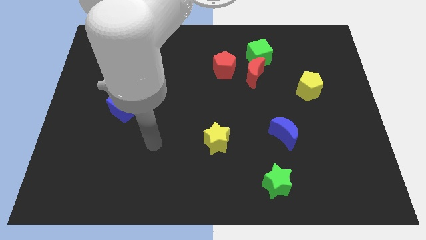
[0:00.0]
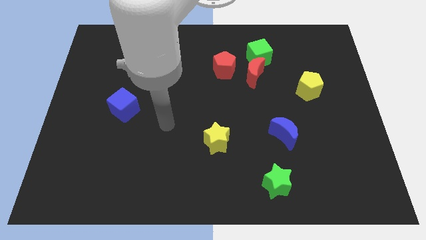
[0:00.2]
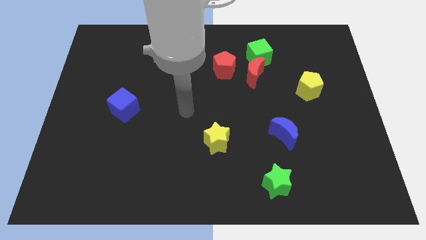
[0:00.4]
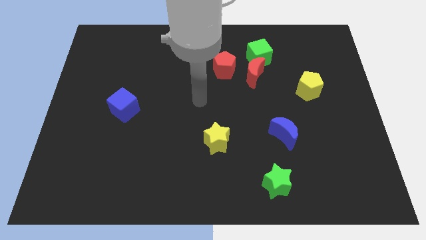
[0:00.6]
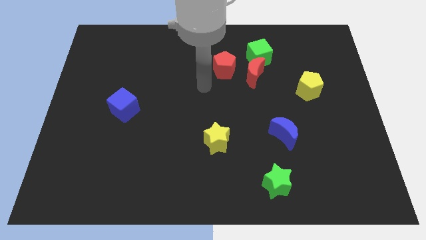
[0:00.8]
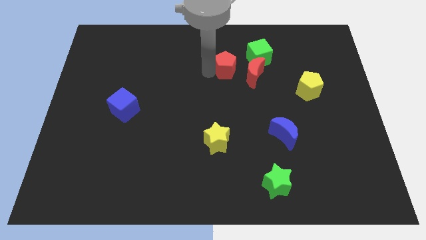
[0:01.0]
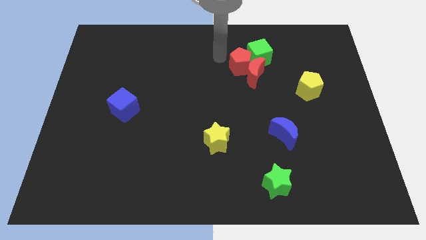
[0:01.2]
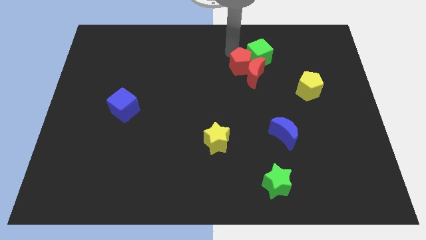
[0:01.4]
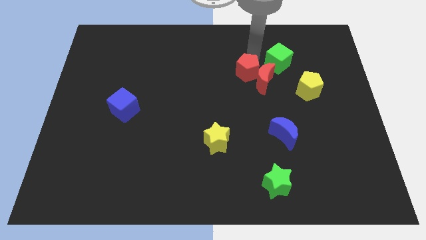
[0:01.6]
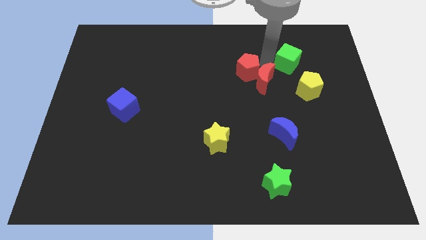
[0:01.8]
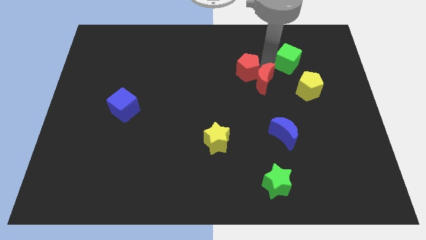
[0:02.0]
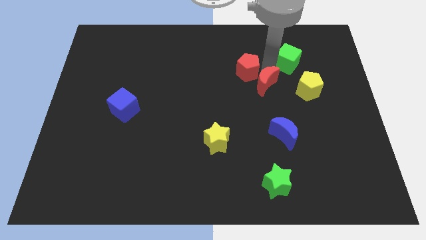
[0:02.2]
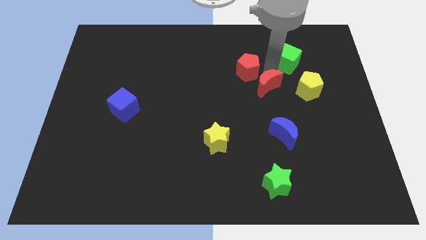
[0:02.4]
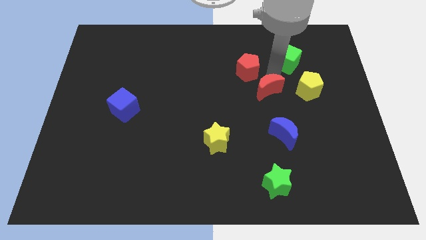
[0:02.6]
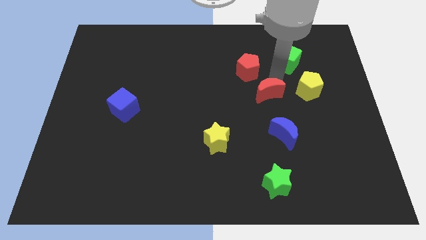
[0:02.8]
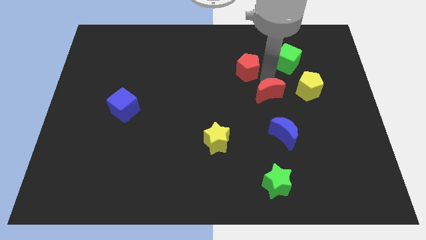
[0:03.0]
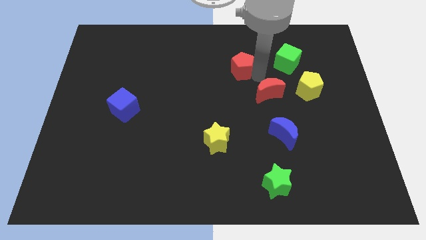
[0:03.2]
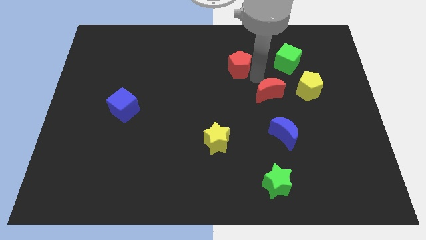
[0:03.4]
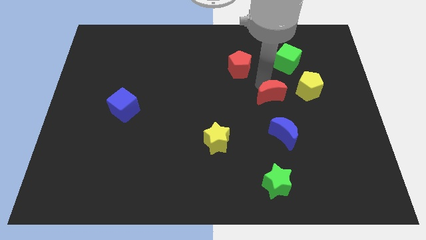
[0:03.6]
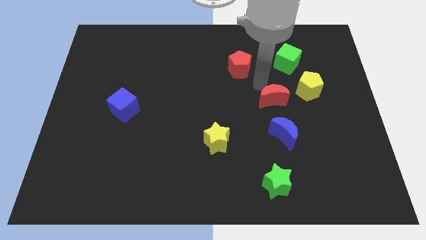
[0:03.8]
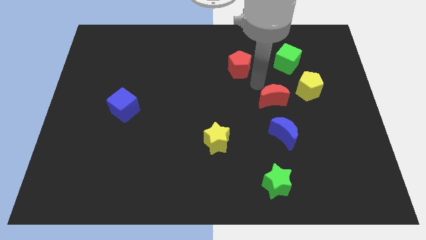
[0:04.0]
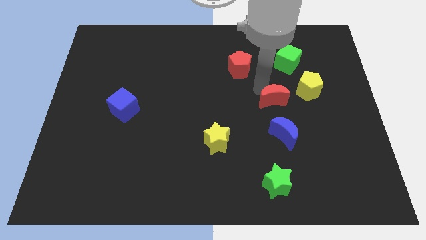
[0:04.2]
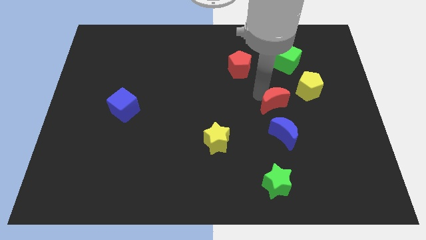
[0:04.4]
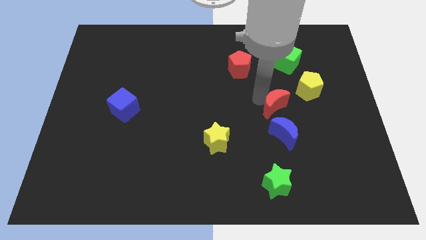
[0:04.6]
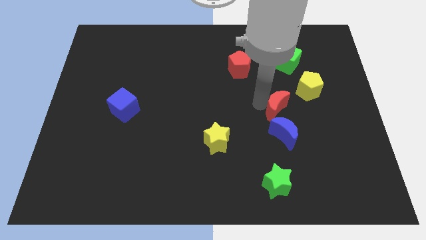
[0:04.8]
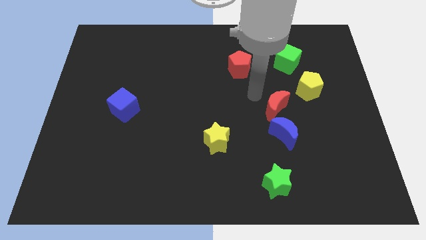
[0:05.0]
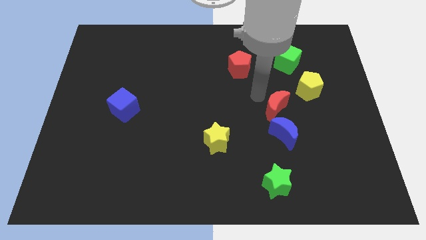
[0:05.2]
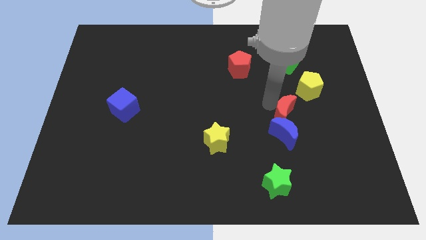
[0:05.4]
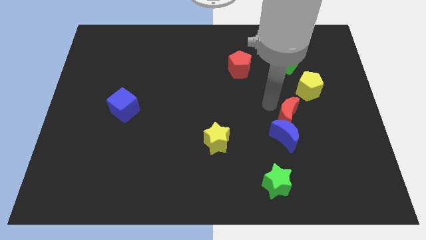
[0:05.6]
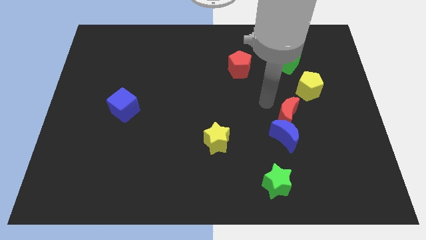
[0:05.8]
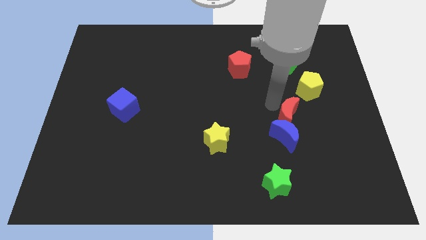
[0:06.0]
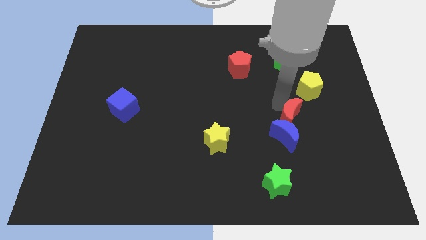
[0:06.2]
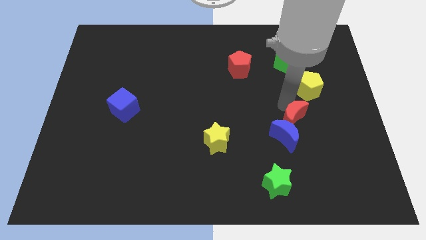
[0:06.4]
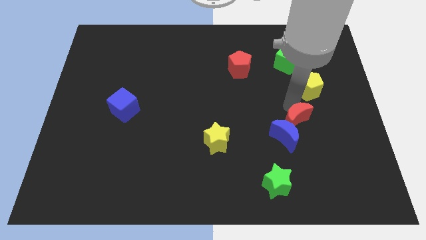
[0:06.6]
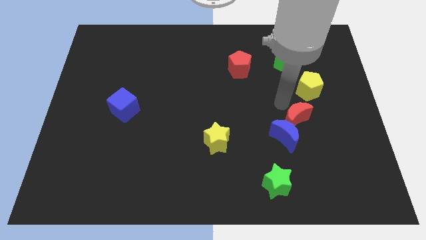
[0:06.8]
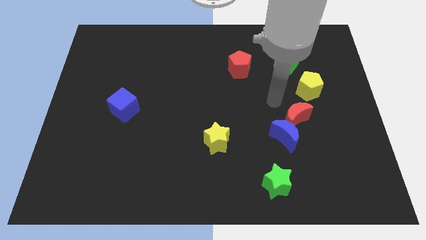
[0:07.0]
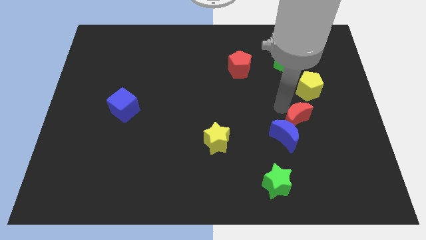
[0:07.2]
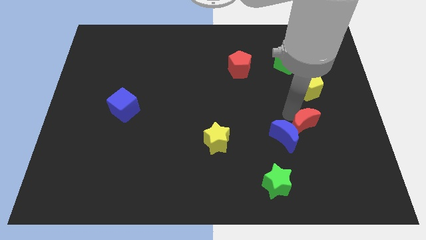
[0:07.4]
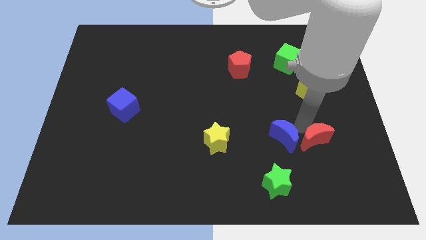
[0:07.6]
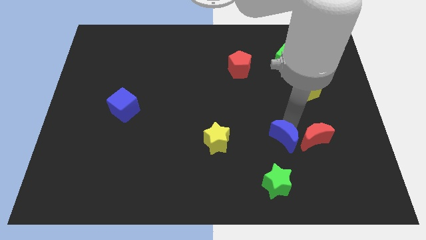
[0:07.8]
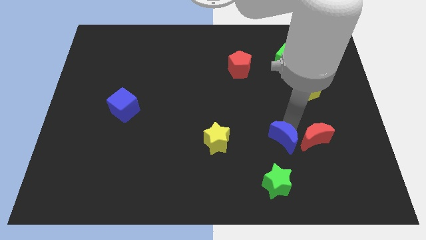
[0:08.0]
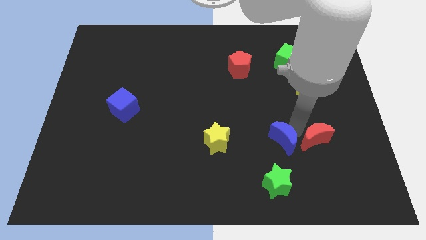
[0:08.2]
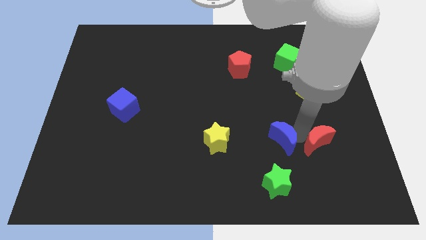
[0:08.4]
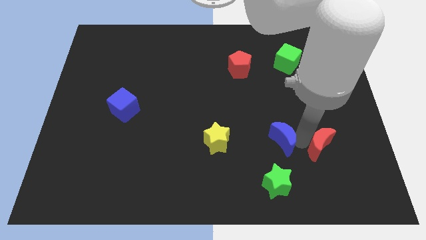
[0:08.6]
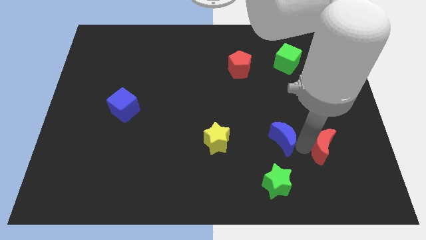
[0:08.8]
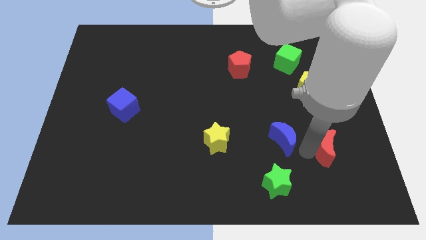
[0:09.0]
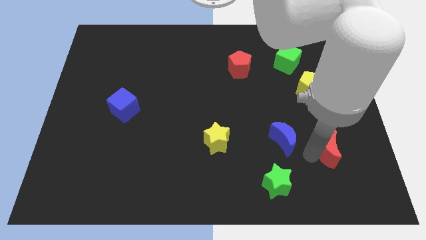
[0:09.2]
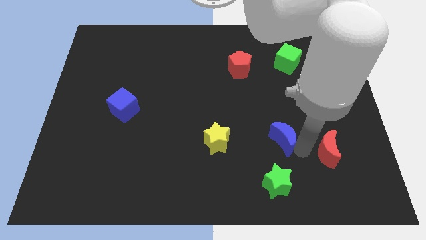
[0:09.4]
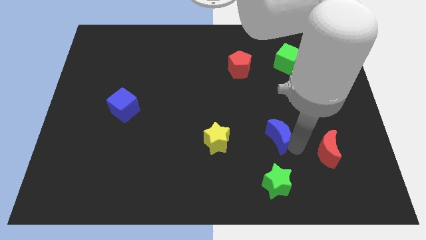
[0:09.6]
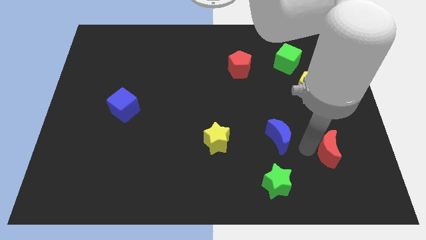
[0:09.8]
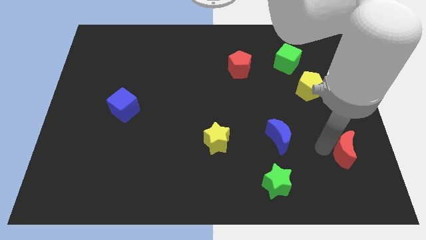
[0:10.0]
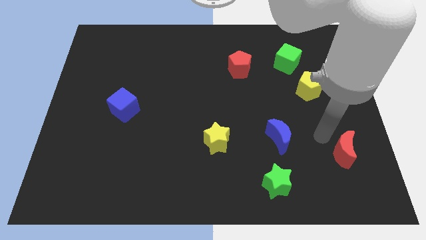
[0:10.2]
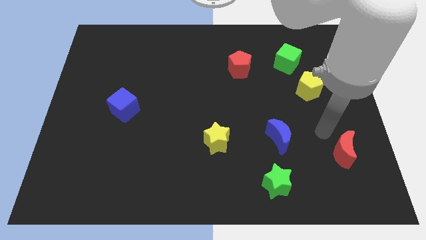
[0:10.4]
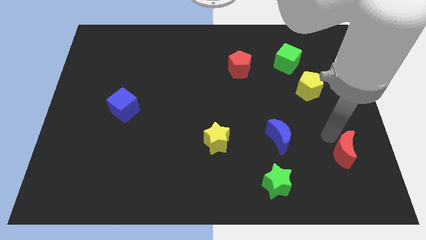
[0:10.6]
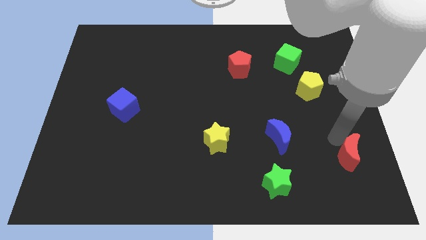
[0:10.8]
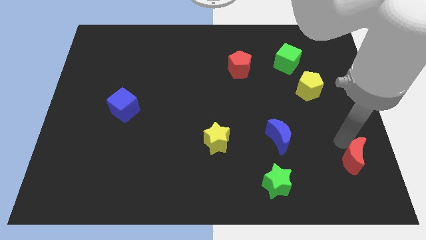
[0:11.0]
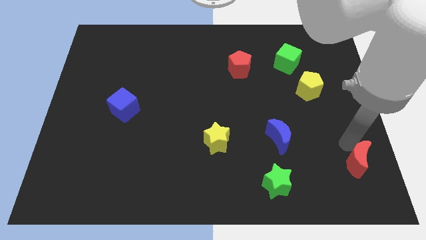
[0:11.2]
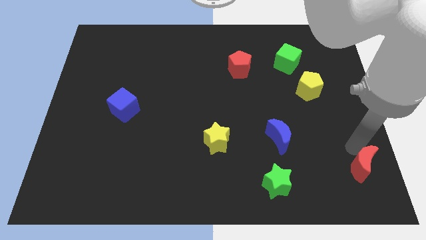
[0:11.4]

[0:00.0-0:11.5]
move the red moon to the bottom right

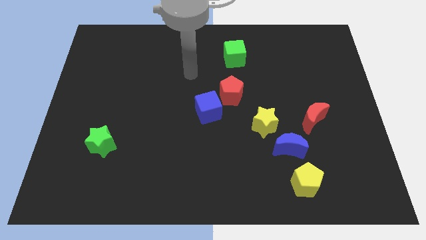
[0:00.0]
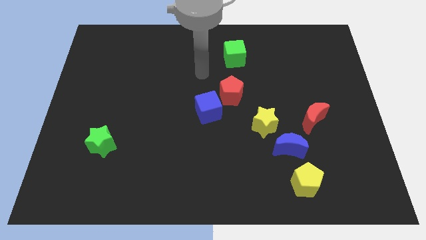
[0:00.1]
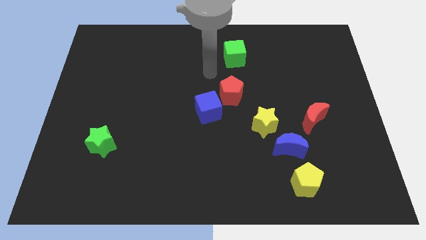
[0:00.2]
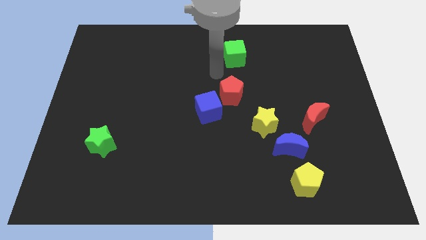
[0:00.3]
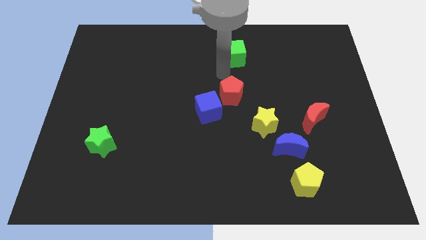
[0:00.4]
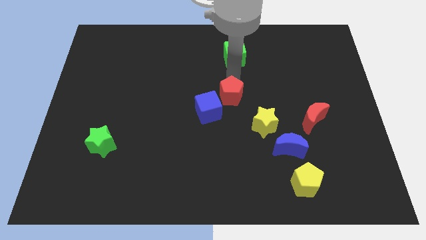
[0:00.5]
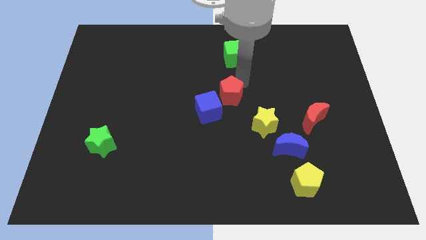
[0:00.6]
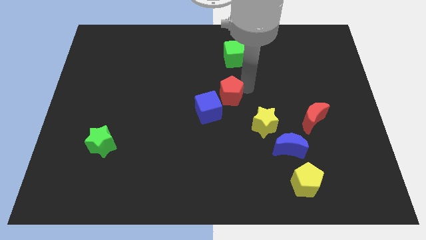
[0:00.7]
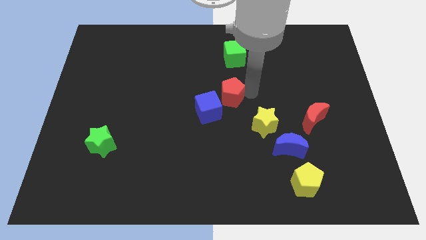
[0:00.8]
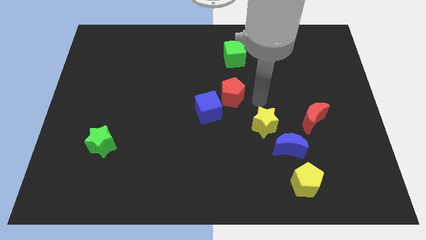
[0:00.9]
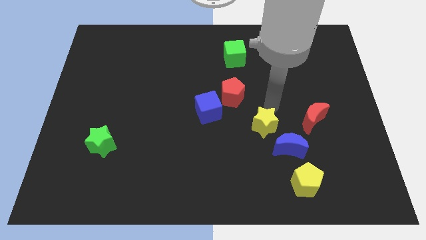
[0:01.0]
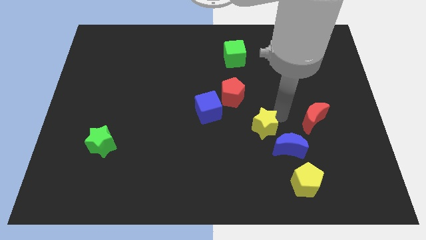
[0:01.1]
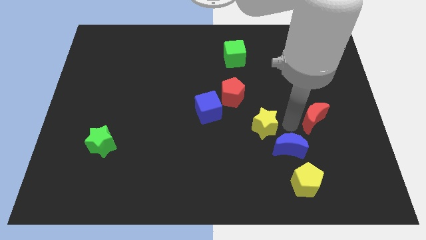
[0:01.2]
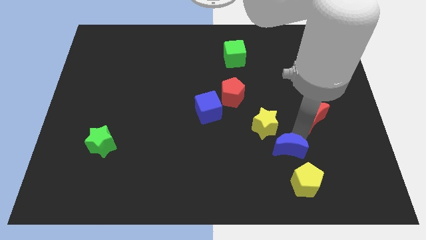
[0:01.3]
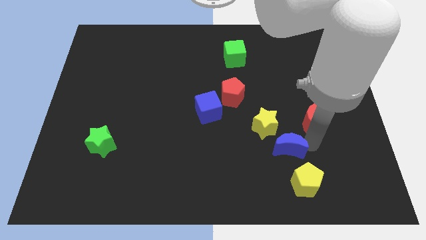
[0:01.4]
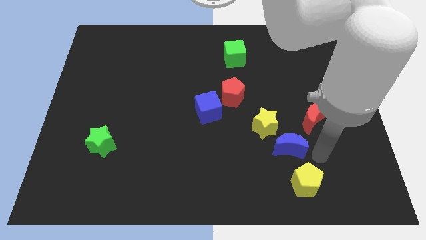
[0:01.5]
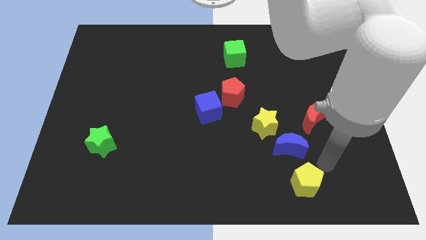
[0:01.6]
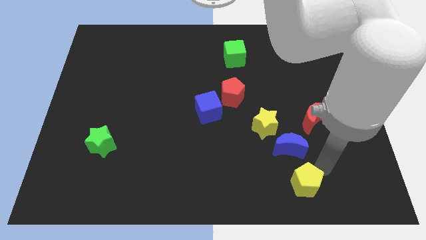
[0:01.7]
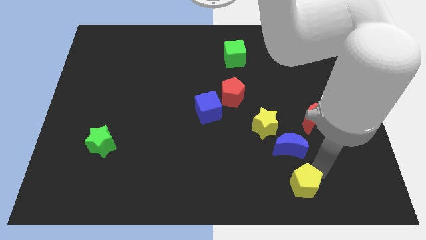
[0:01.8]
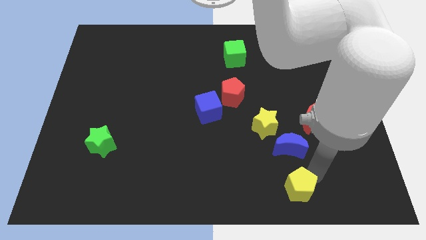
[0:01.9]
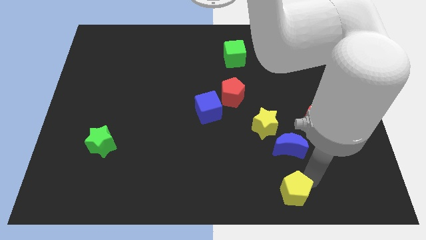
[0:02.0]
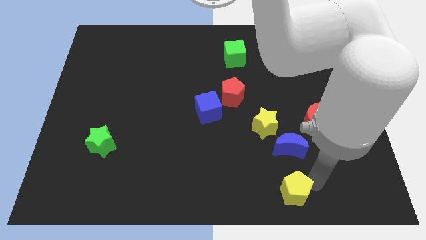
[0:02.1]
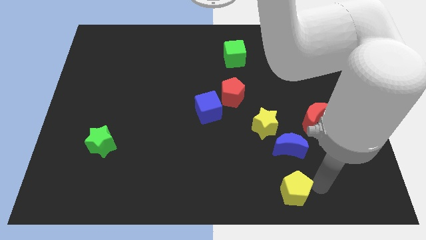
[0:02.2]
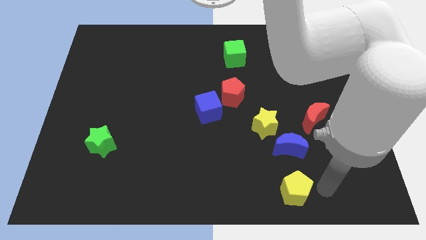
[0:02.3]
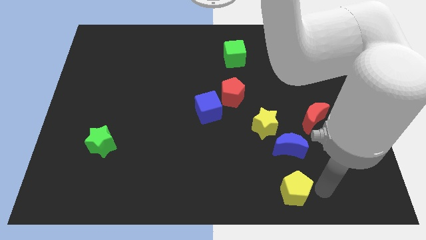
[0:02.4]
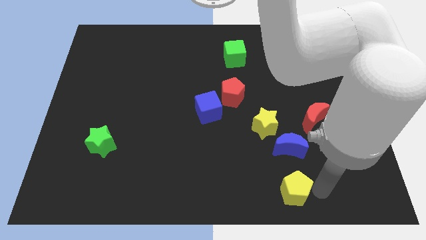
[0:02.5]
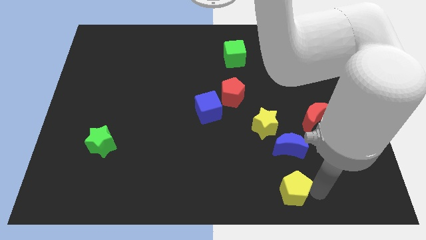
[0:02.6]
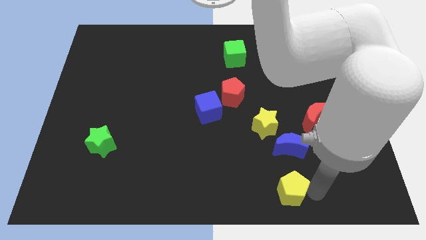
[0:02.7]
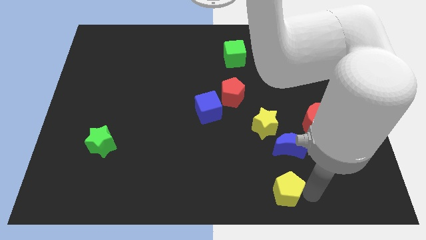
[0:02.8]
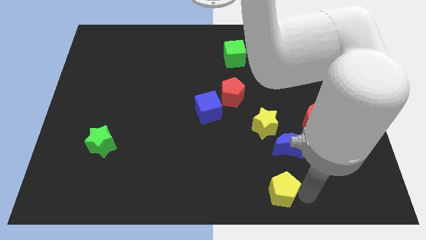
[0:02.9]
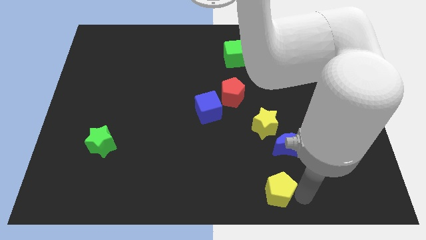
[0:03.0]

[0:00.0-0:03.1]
push the yellow pentagon to the bottom
